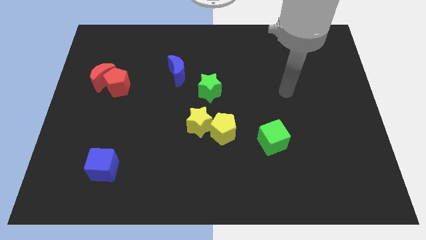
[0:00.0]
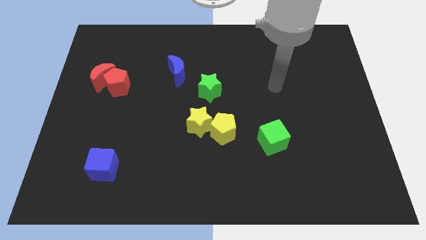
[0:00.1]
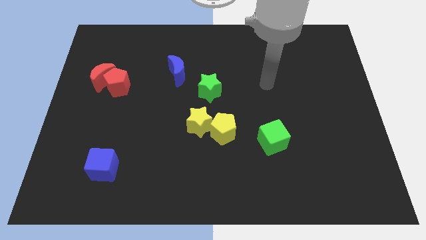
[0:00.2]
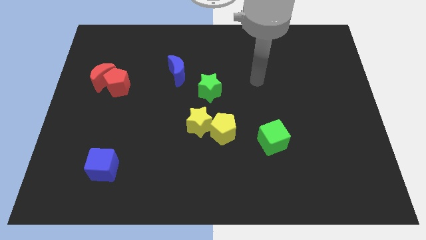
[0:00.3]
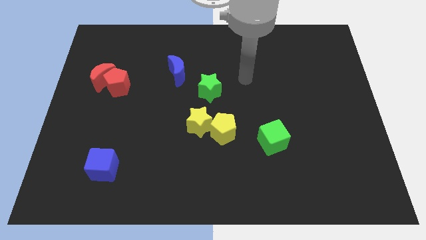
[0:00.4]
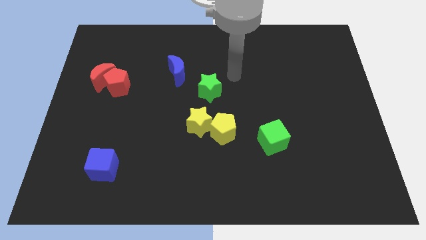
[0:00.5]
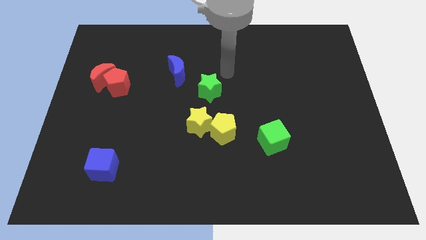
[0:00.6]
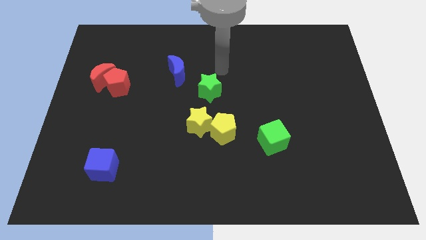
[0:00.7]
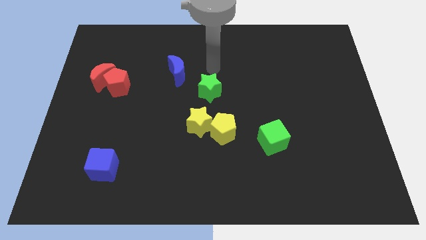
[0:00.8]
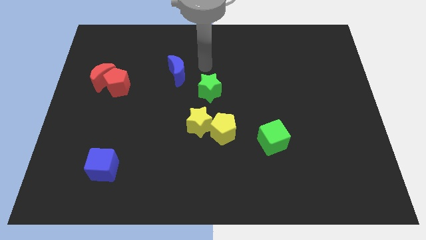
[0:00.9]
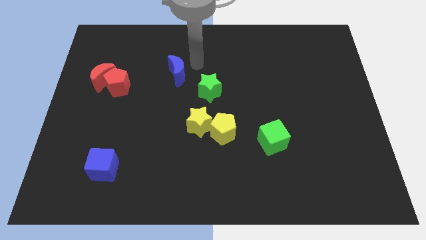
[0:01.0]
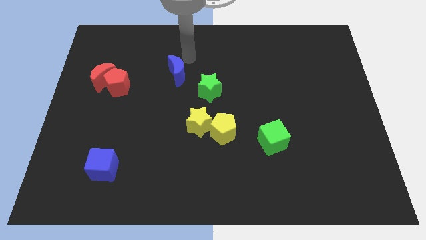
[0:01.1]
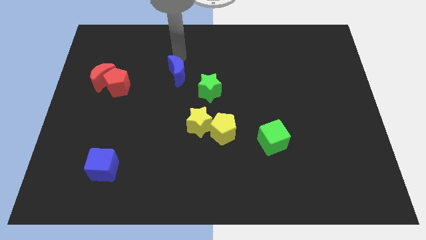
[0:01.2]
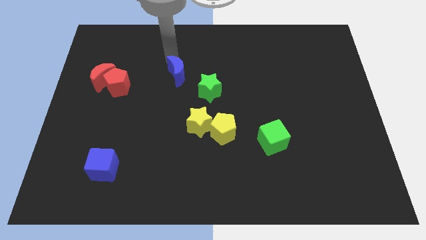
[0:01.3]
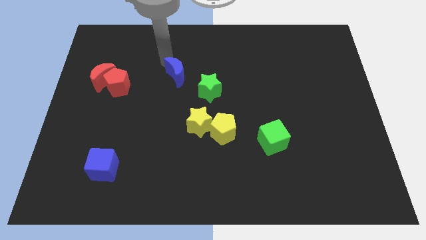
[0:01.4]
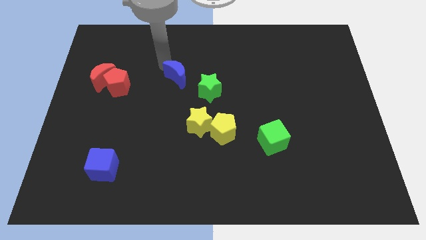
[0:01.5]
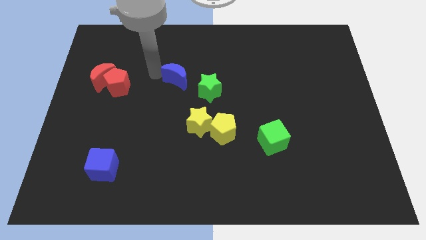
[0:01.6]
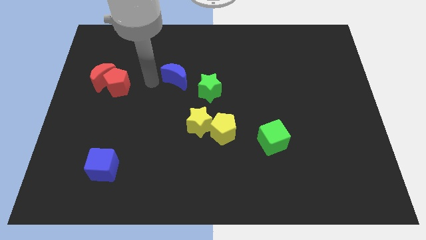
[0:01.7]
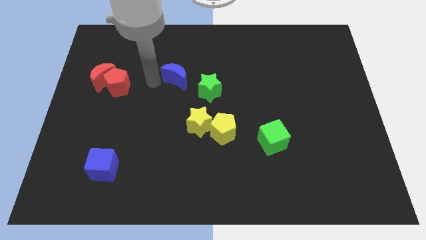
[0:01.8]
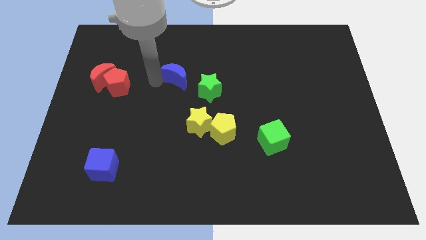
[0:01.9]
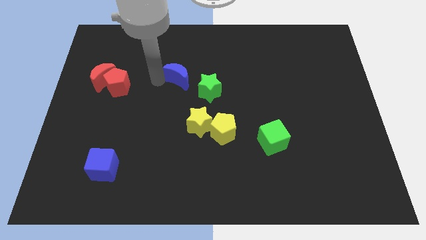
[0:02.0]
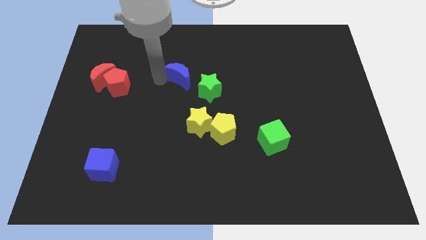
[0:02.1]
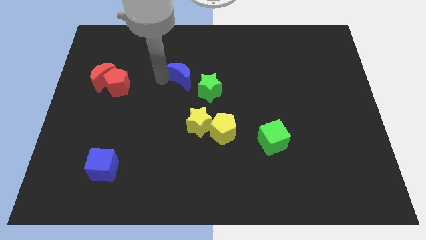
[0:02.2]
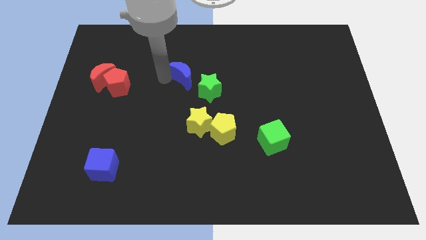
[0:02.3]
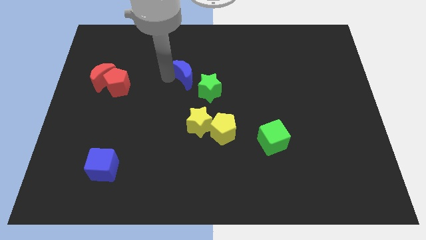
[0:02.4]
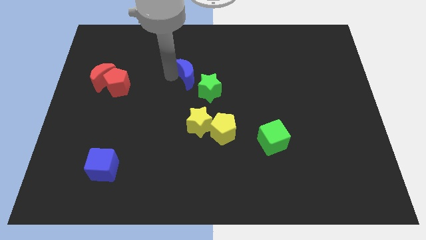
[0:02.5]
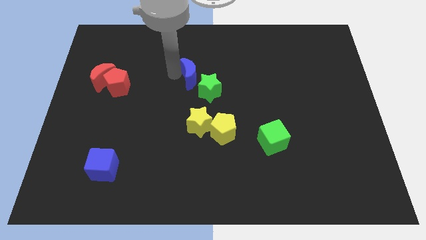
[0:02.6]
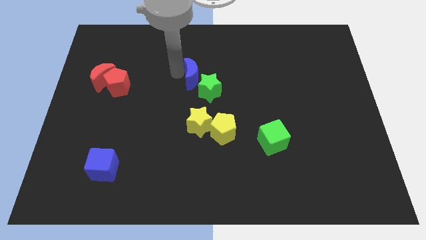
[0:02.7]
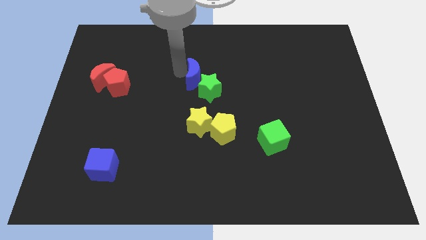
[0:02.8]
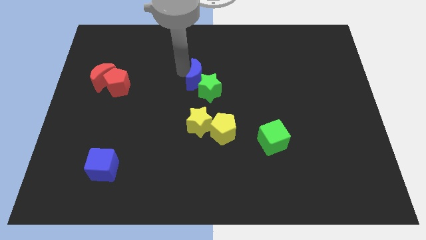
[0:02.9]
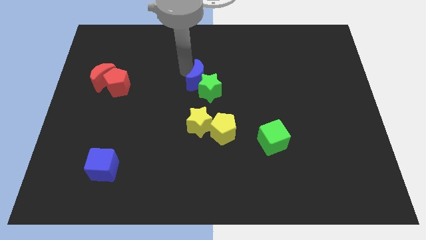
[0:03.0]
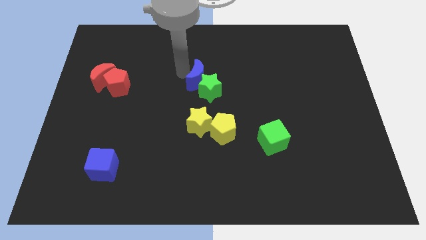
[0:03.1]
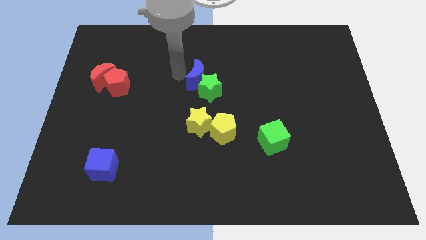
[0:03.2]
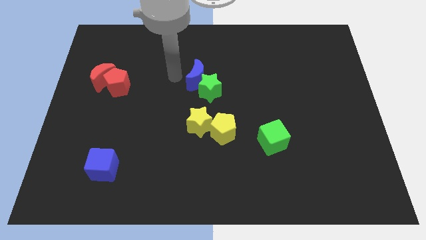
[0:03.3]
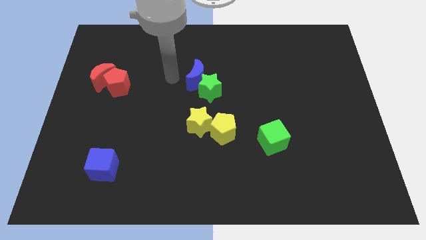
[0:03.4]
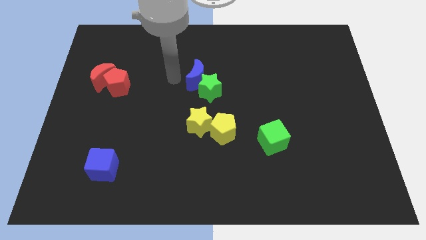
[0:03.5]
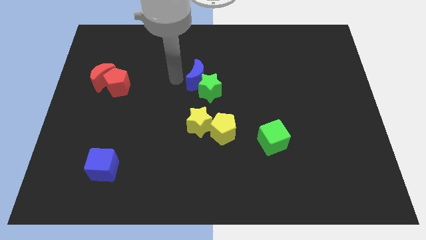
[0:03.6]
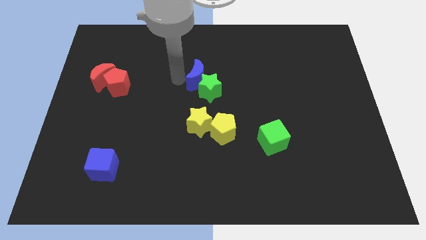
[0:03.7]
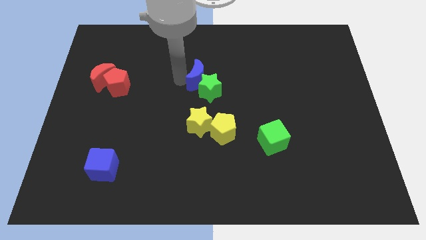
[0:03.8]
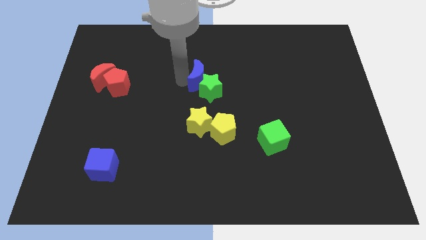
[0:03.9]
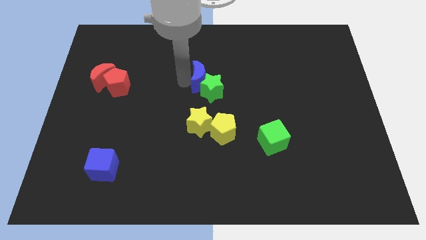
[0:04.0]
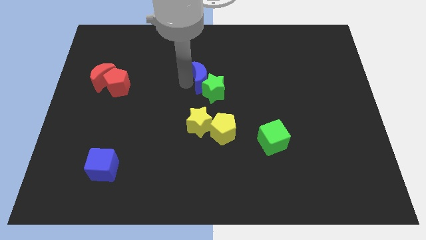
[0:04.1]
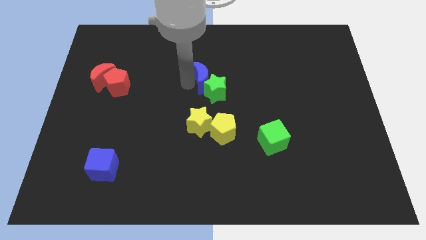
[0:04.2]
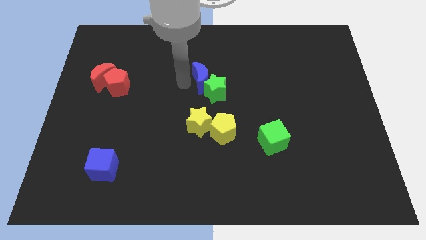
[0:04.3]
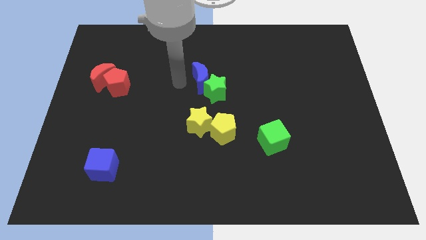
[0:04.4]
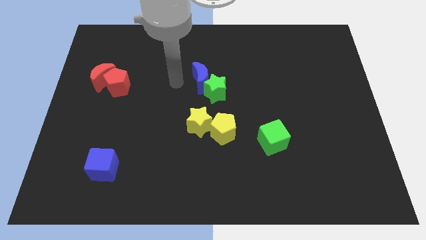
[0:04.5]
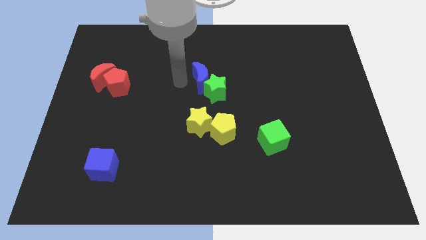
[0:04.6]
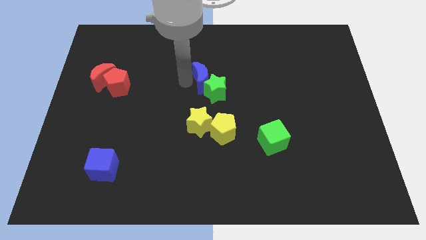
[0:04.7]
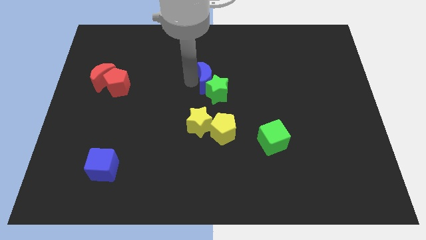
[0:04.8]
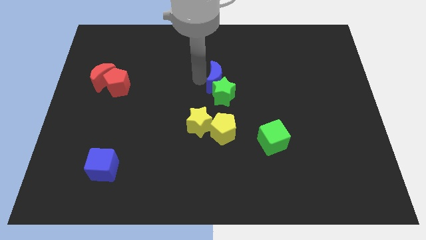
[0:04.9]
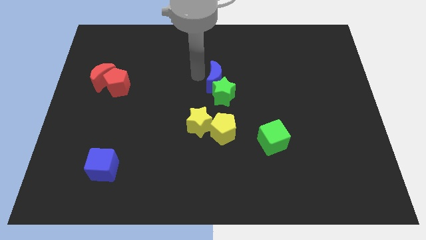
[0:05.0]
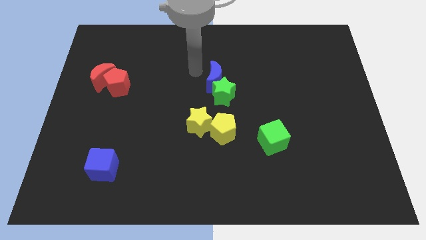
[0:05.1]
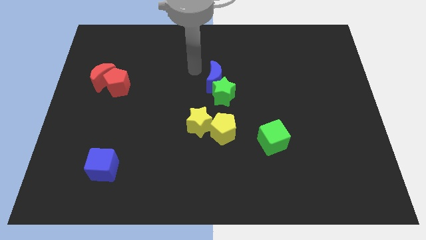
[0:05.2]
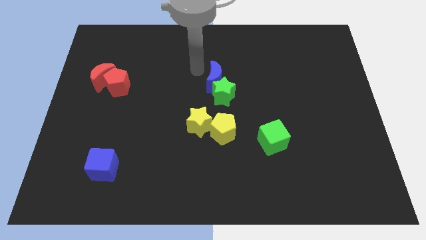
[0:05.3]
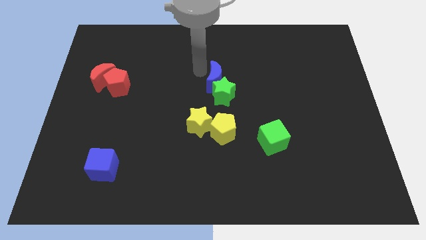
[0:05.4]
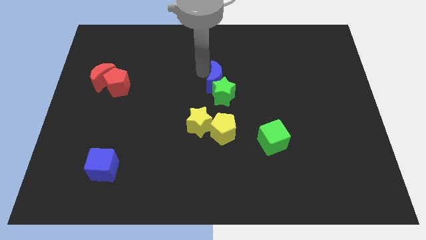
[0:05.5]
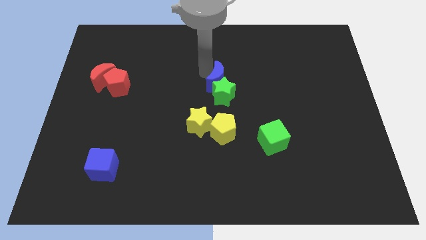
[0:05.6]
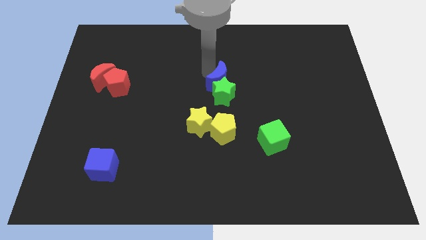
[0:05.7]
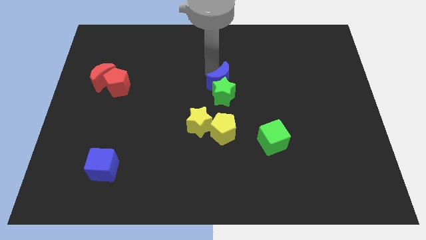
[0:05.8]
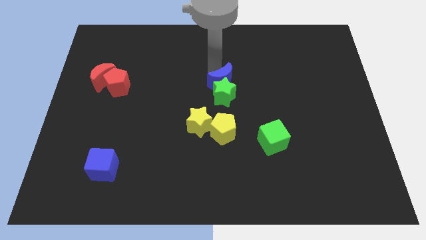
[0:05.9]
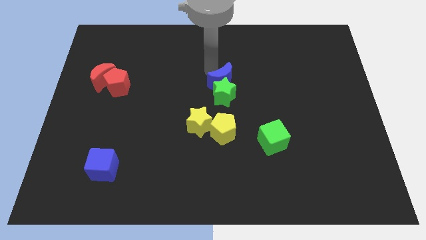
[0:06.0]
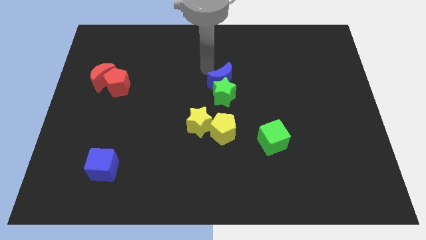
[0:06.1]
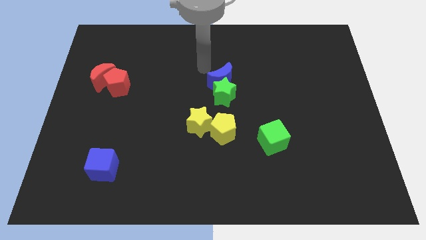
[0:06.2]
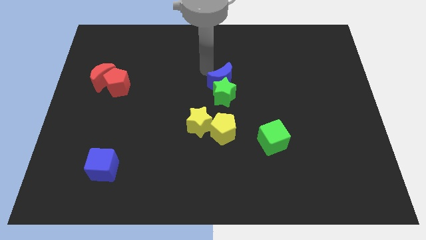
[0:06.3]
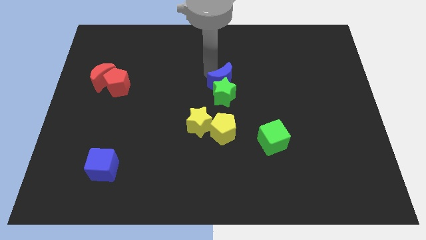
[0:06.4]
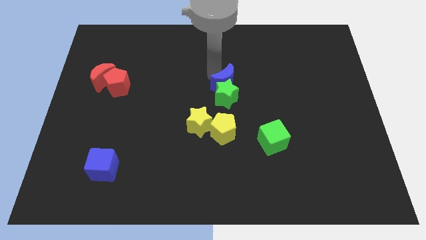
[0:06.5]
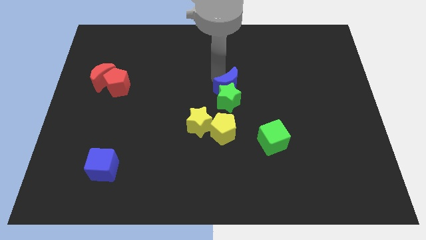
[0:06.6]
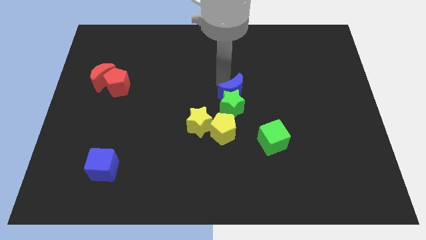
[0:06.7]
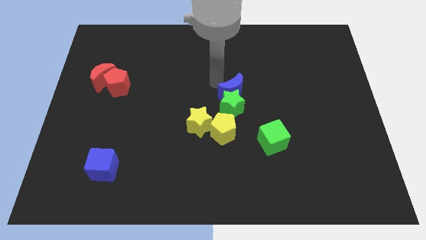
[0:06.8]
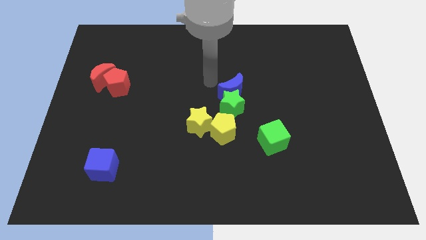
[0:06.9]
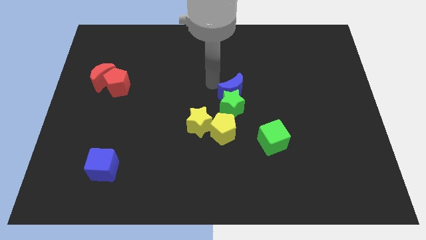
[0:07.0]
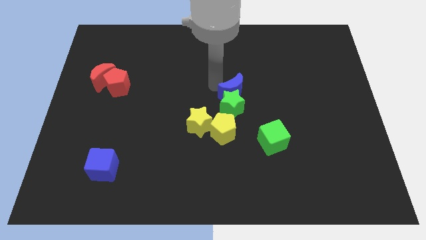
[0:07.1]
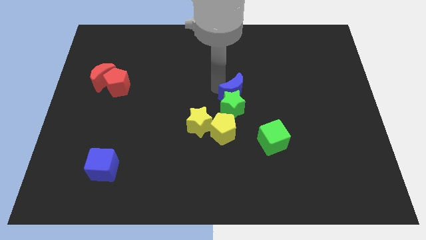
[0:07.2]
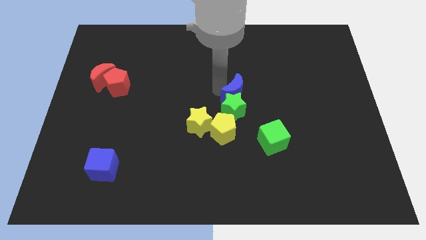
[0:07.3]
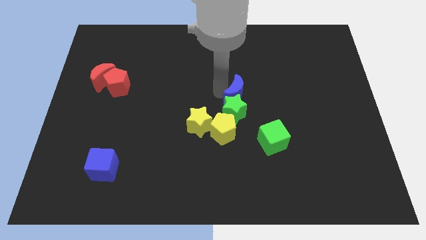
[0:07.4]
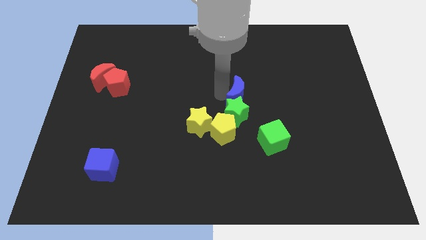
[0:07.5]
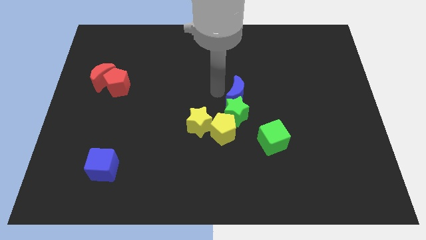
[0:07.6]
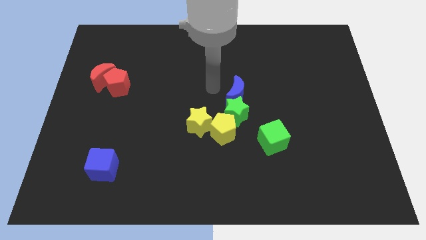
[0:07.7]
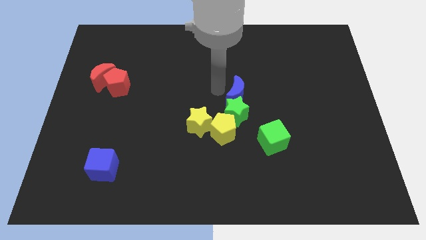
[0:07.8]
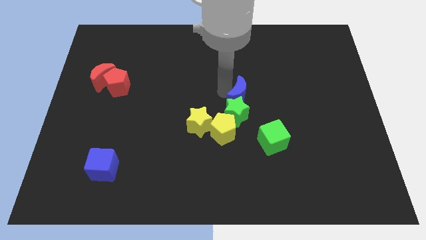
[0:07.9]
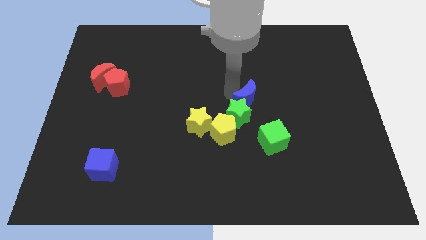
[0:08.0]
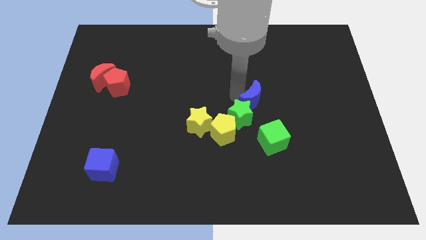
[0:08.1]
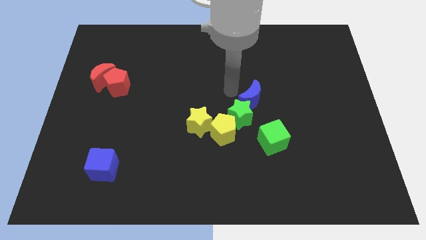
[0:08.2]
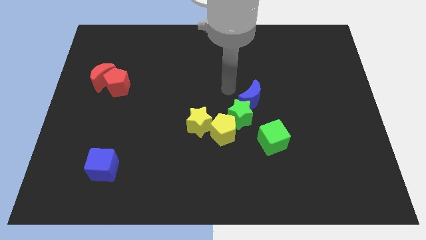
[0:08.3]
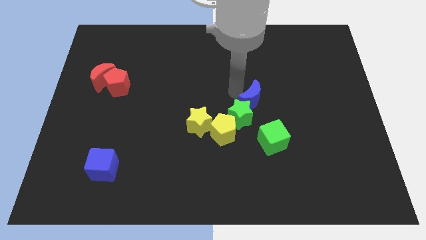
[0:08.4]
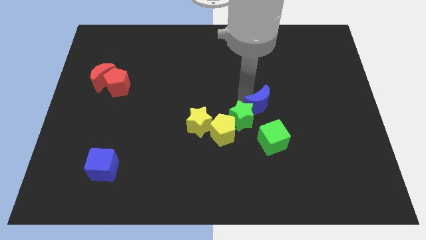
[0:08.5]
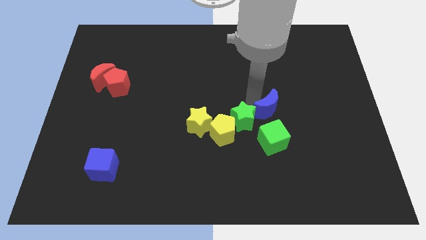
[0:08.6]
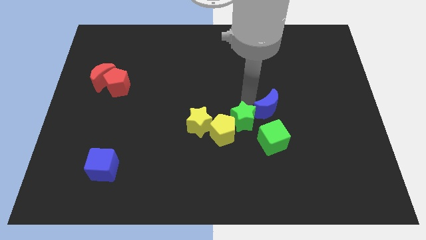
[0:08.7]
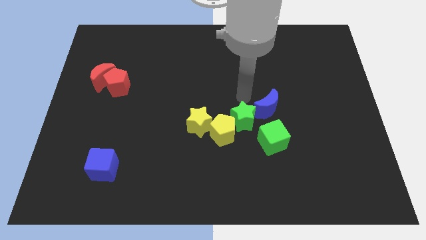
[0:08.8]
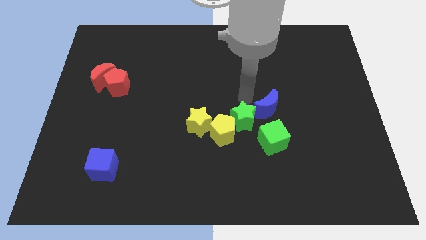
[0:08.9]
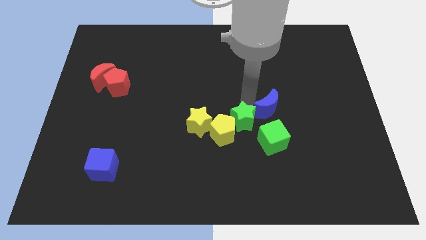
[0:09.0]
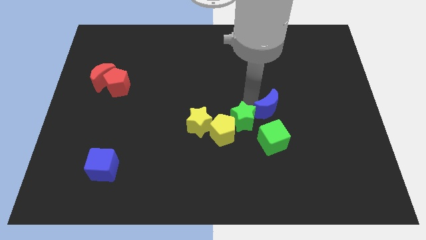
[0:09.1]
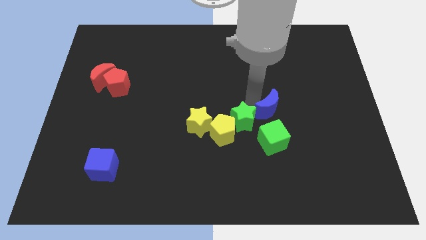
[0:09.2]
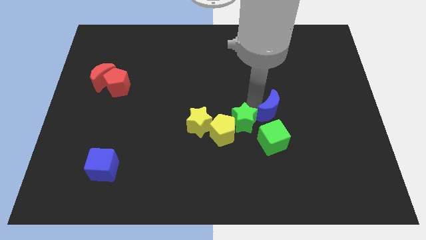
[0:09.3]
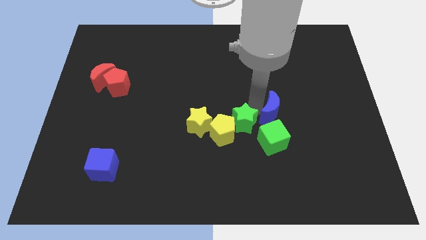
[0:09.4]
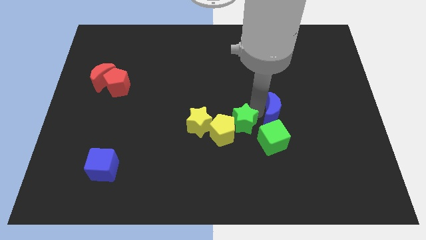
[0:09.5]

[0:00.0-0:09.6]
slide the blue moon to the top right of the green cube
